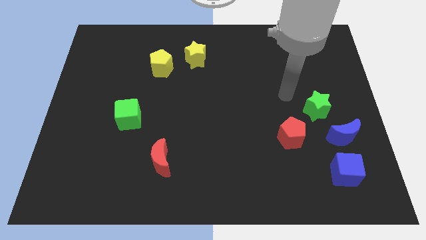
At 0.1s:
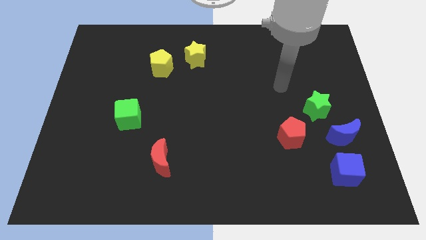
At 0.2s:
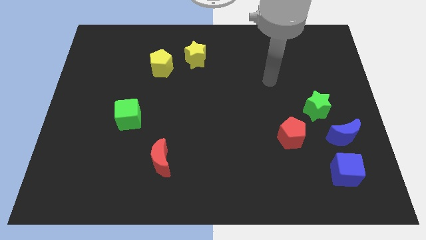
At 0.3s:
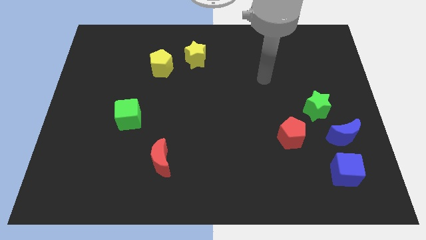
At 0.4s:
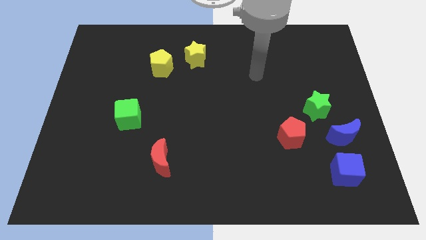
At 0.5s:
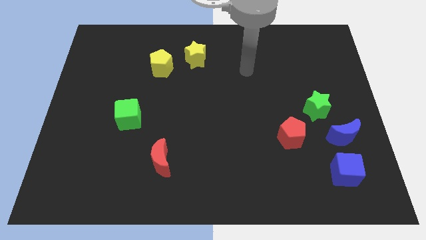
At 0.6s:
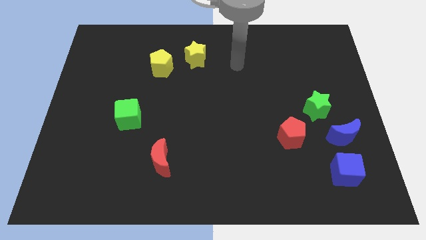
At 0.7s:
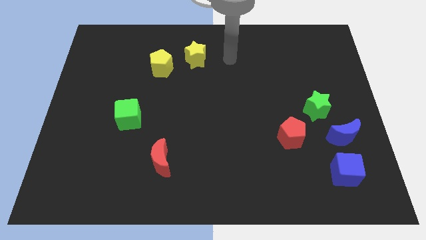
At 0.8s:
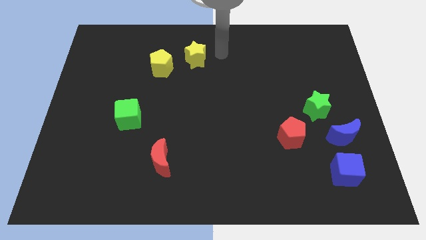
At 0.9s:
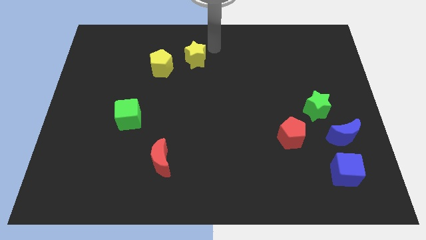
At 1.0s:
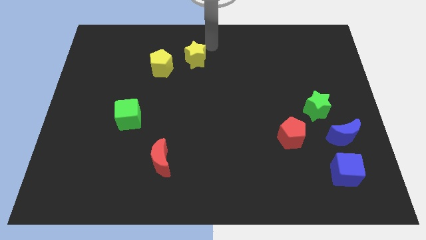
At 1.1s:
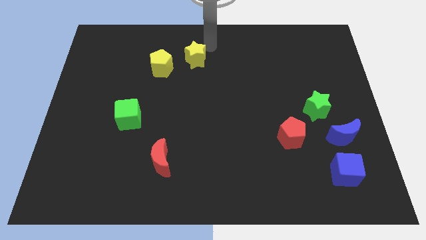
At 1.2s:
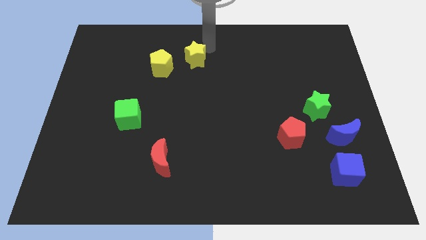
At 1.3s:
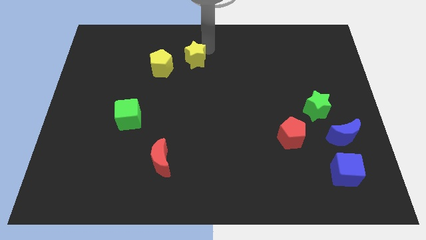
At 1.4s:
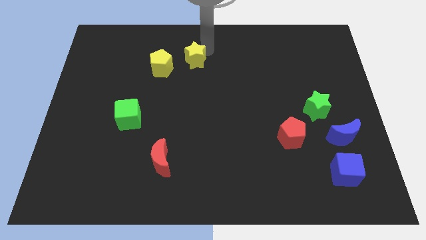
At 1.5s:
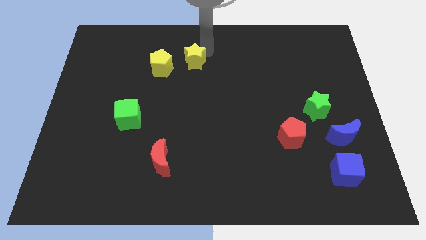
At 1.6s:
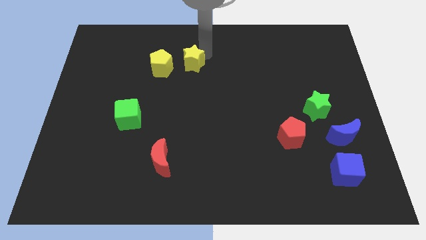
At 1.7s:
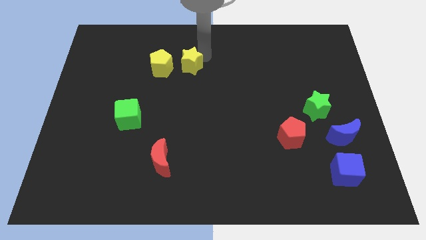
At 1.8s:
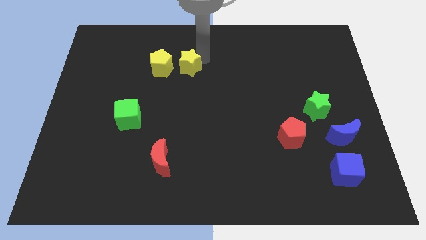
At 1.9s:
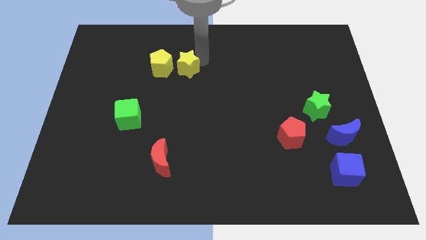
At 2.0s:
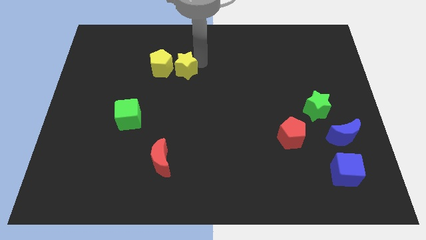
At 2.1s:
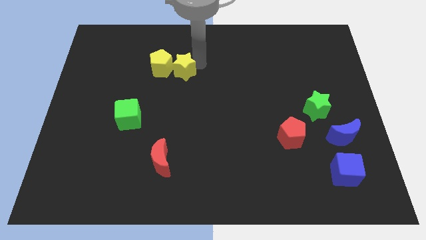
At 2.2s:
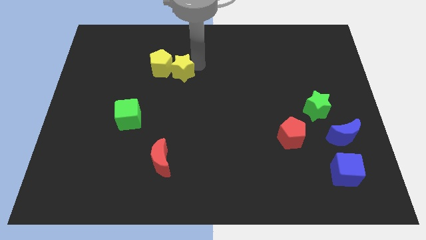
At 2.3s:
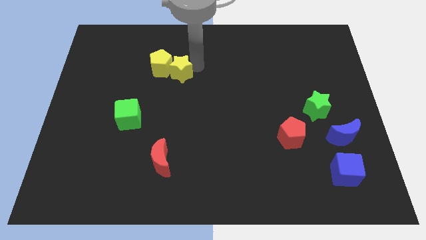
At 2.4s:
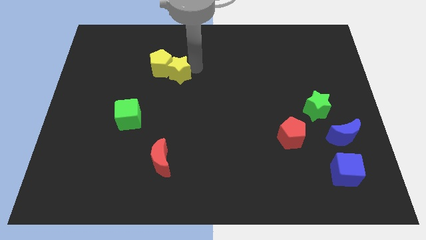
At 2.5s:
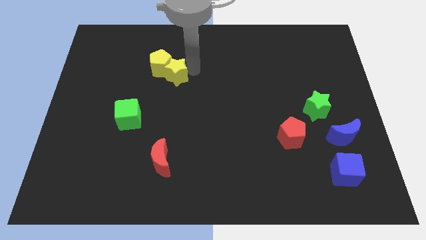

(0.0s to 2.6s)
slightly slide the yellow star diagonally downwards and to the left

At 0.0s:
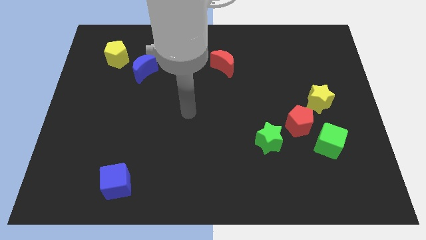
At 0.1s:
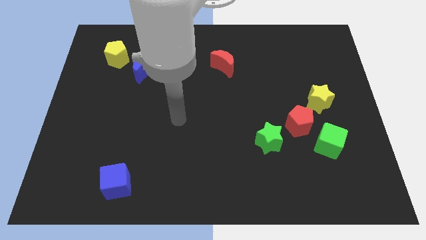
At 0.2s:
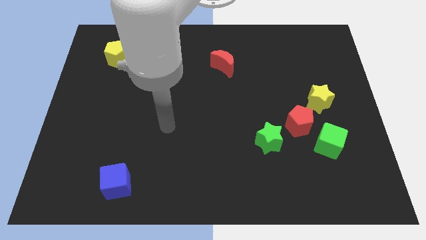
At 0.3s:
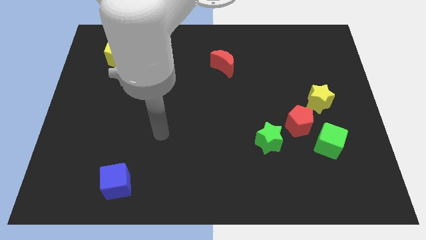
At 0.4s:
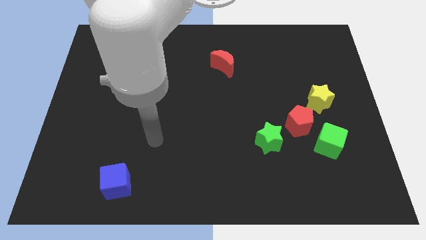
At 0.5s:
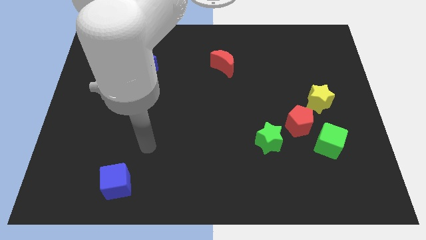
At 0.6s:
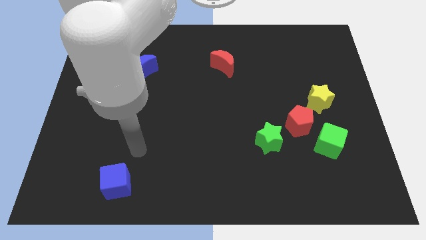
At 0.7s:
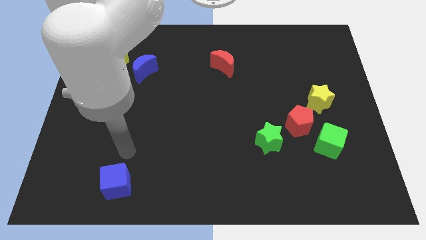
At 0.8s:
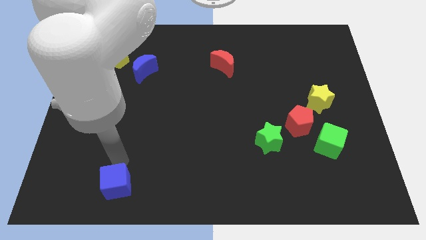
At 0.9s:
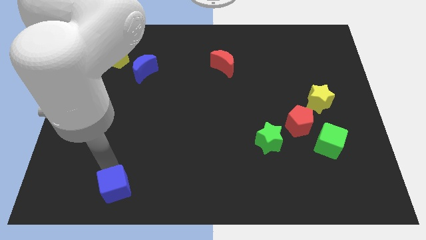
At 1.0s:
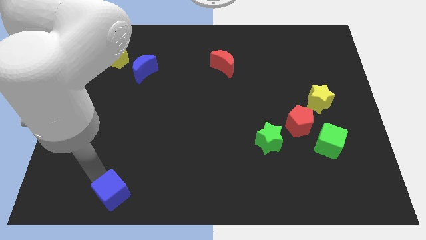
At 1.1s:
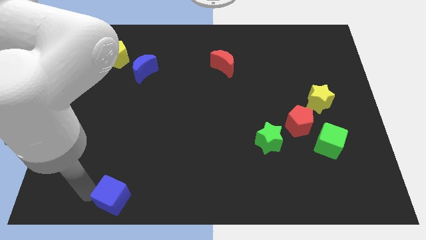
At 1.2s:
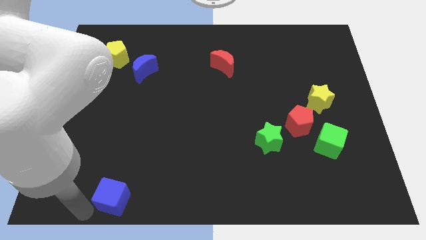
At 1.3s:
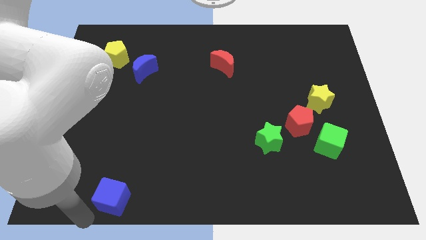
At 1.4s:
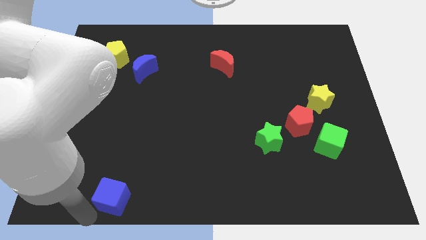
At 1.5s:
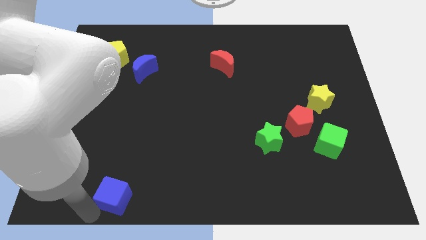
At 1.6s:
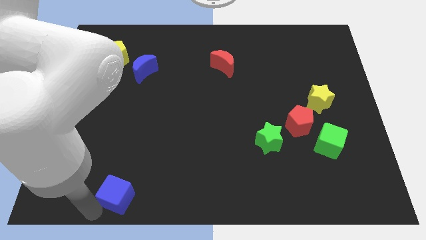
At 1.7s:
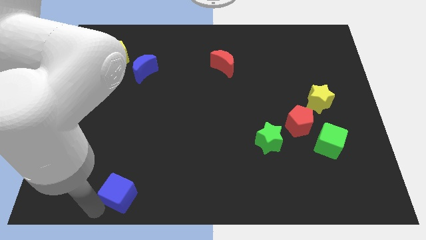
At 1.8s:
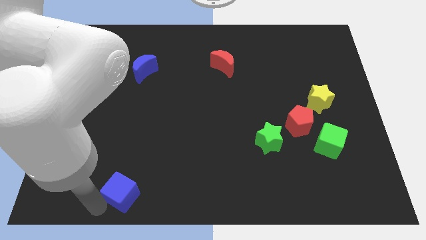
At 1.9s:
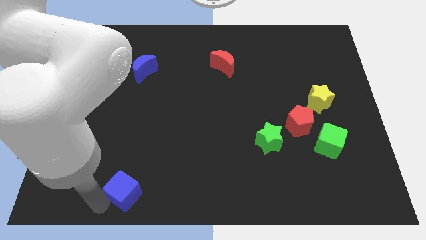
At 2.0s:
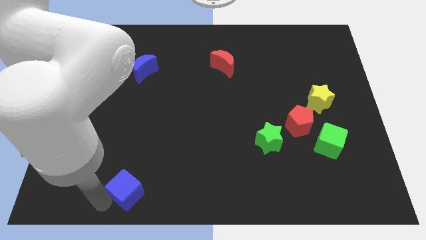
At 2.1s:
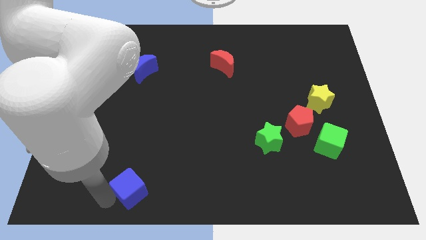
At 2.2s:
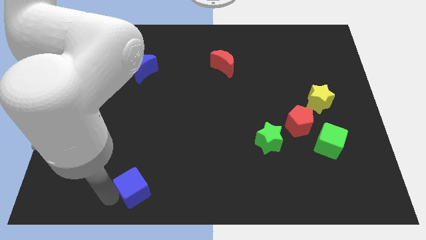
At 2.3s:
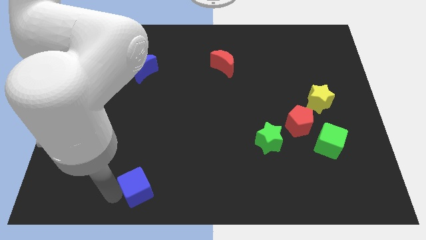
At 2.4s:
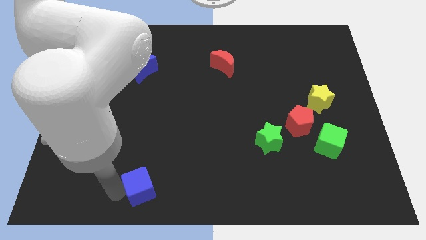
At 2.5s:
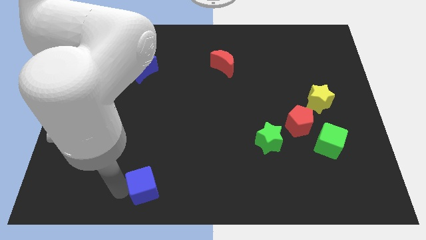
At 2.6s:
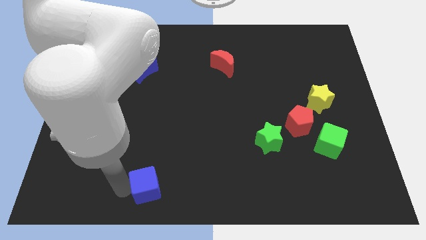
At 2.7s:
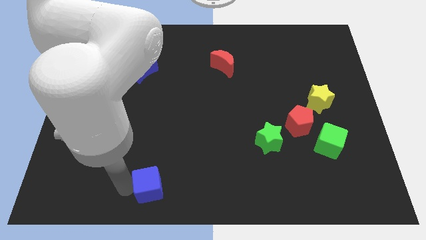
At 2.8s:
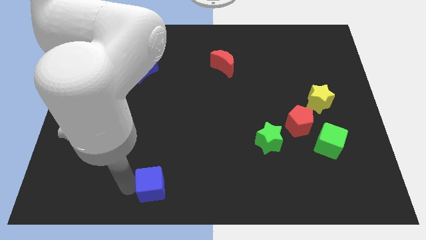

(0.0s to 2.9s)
slightly slide the blue cube right

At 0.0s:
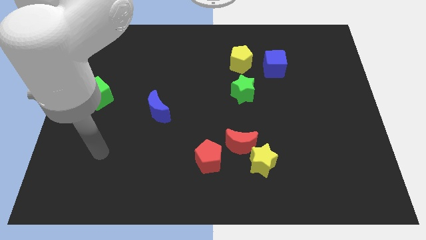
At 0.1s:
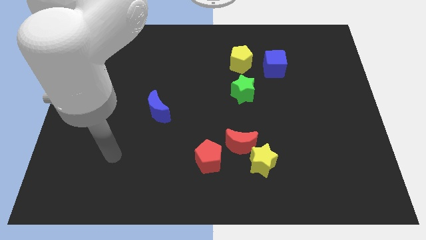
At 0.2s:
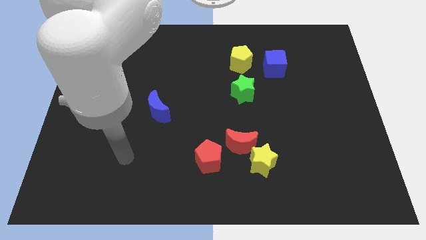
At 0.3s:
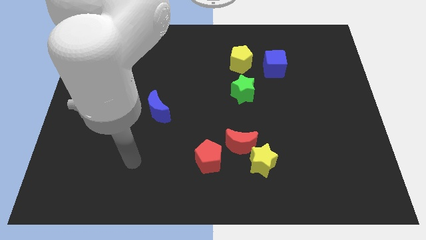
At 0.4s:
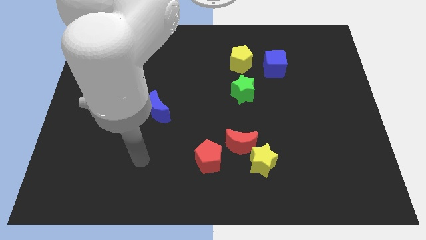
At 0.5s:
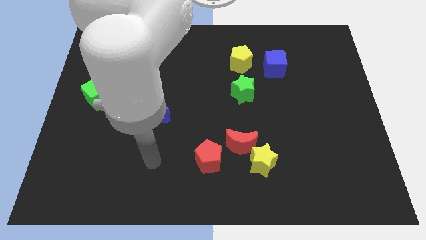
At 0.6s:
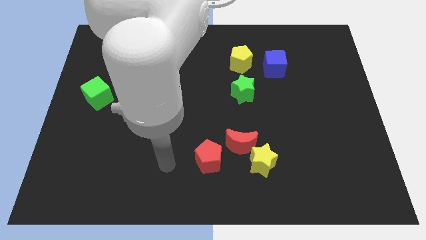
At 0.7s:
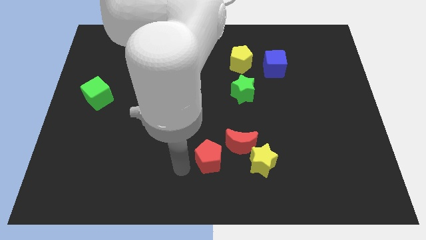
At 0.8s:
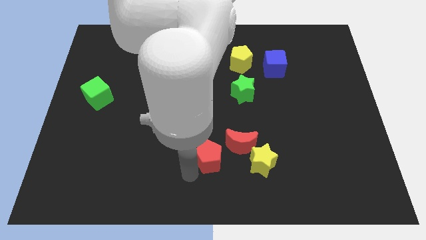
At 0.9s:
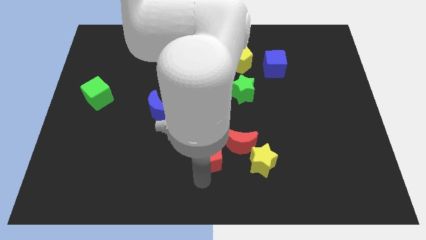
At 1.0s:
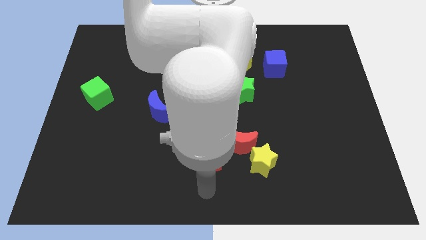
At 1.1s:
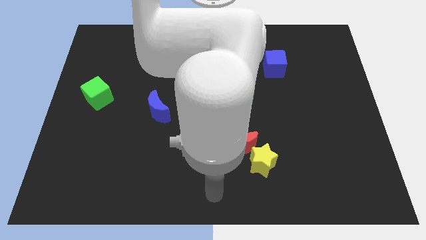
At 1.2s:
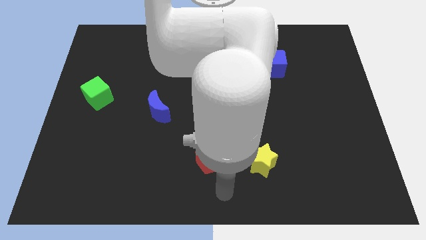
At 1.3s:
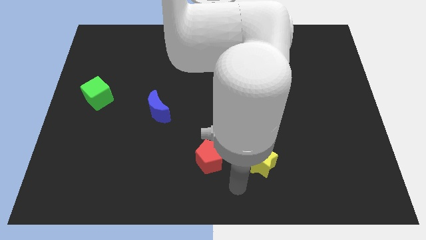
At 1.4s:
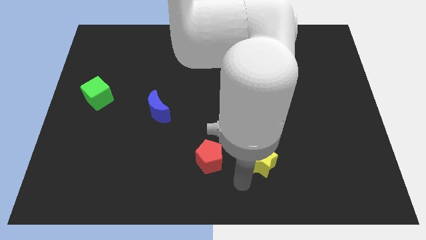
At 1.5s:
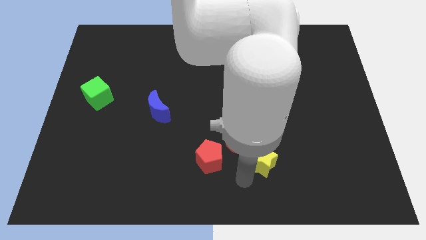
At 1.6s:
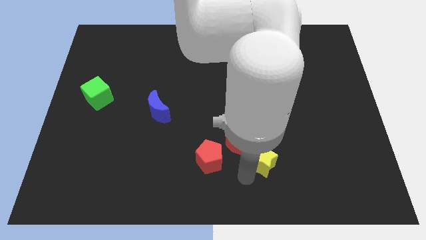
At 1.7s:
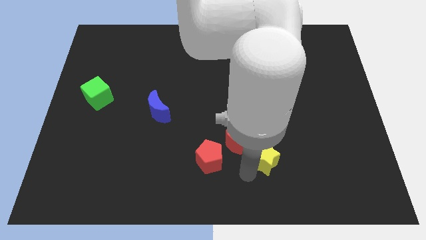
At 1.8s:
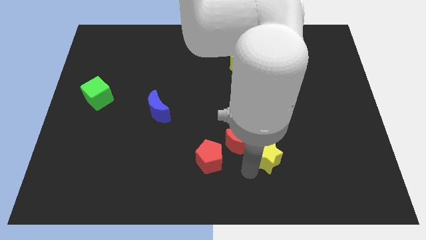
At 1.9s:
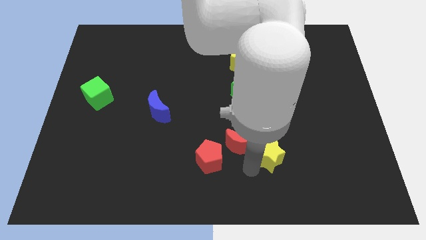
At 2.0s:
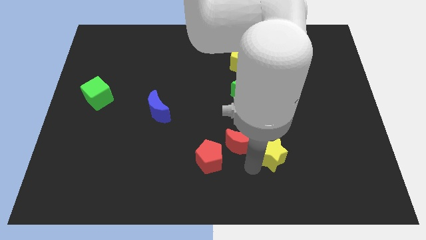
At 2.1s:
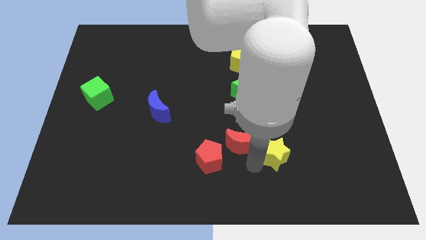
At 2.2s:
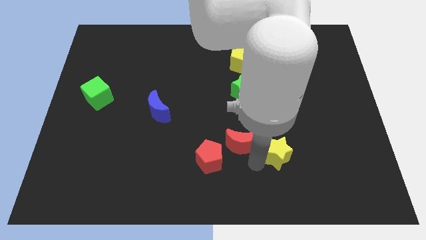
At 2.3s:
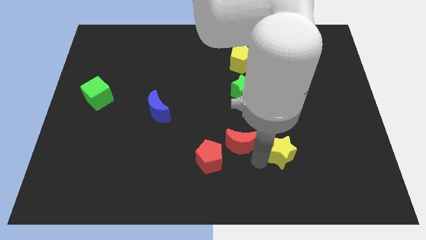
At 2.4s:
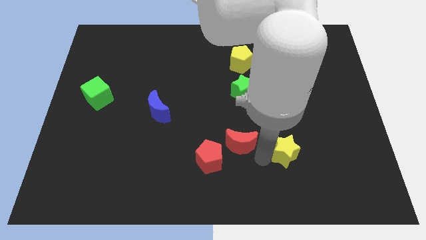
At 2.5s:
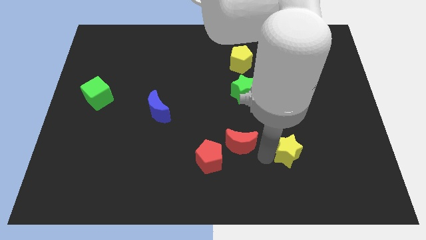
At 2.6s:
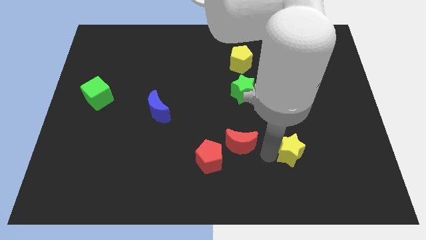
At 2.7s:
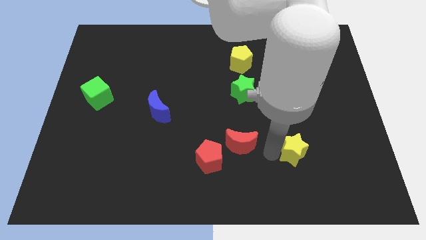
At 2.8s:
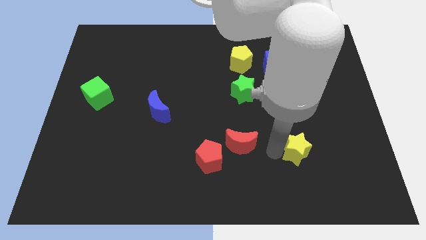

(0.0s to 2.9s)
move the yellow star upwards and right diagonally a bit
